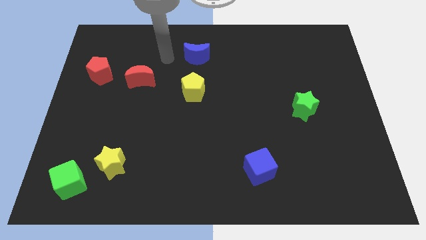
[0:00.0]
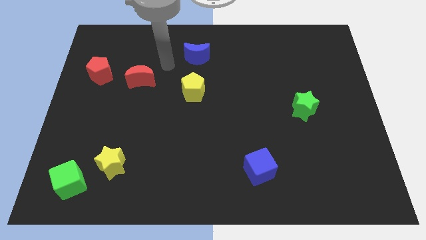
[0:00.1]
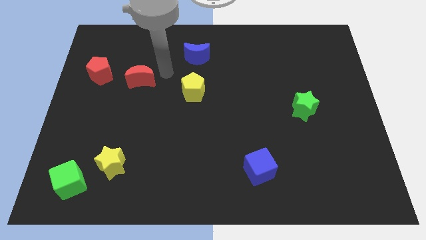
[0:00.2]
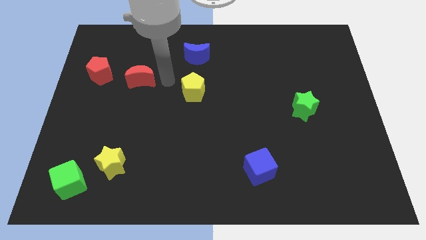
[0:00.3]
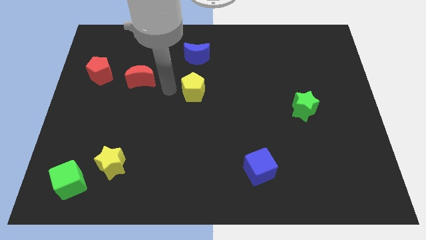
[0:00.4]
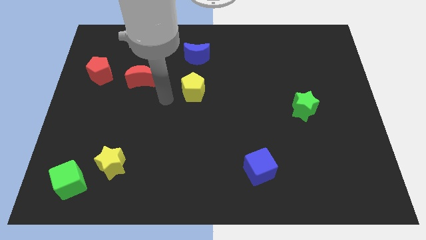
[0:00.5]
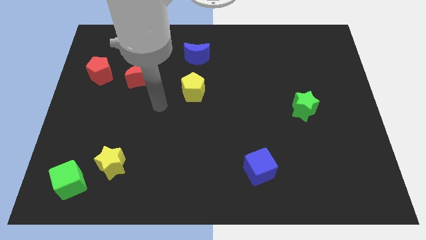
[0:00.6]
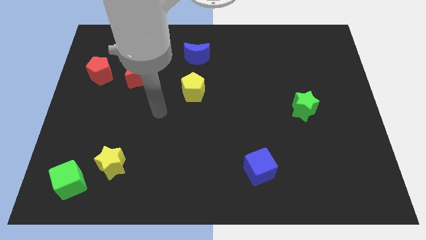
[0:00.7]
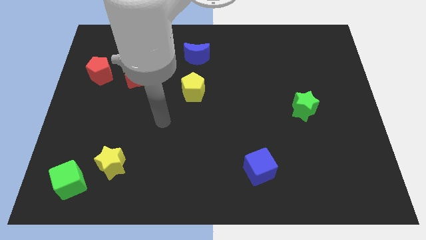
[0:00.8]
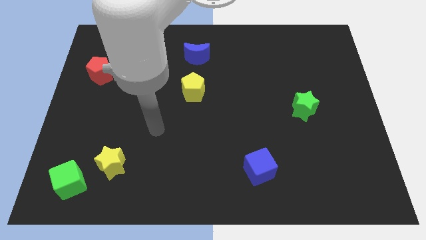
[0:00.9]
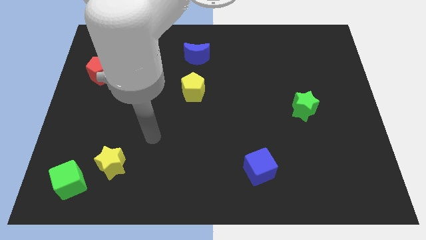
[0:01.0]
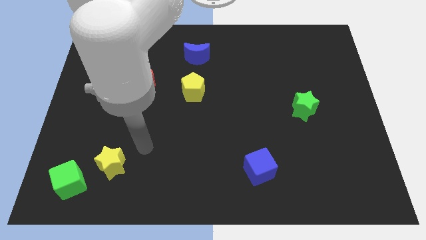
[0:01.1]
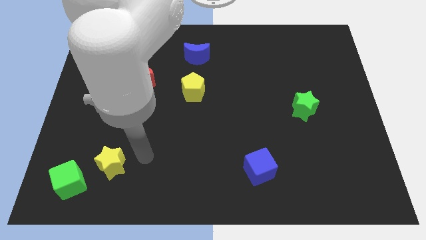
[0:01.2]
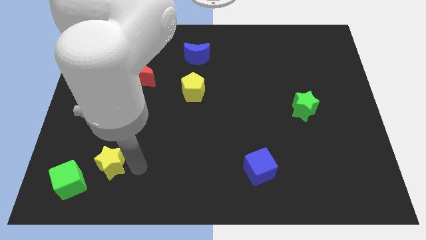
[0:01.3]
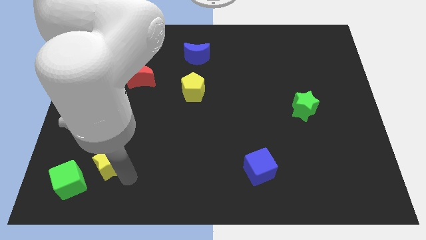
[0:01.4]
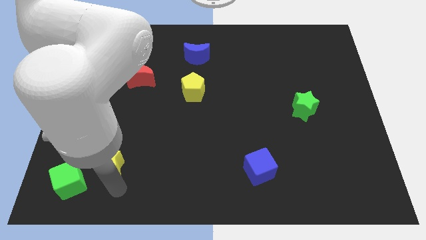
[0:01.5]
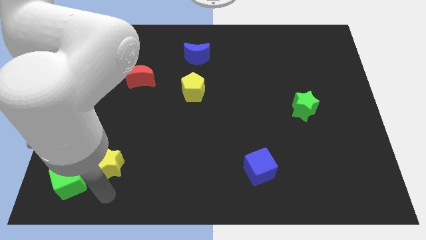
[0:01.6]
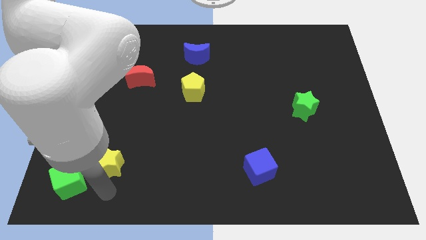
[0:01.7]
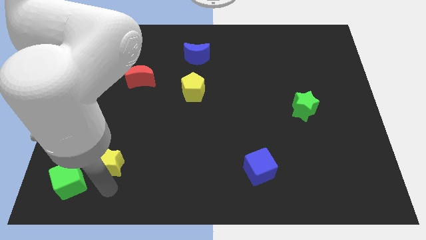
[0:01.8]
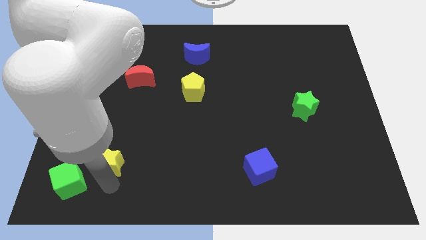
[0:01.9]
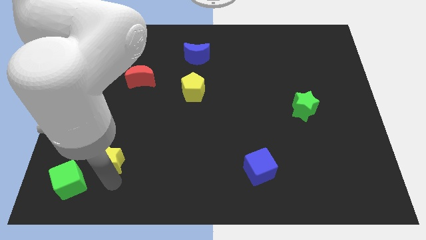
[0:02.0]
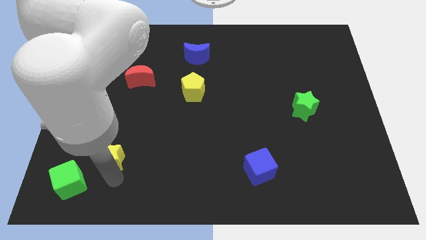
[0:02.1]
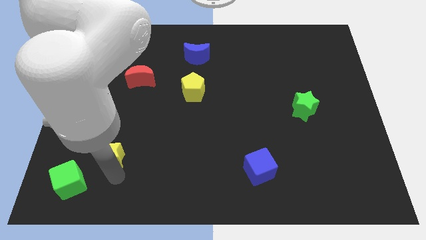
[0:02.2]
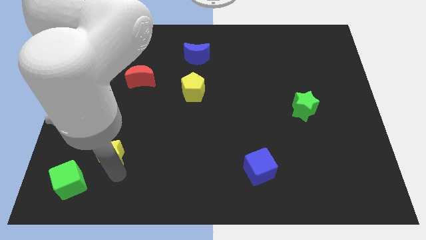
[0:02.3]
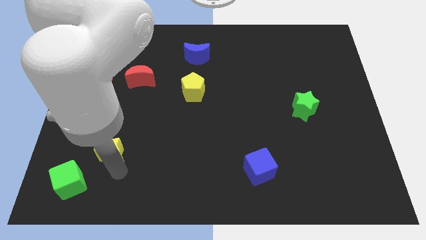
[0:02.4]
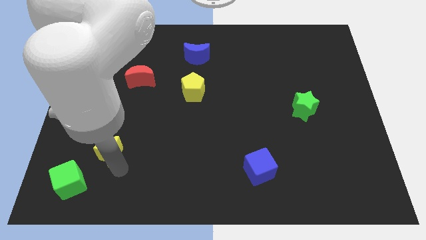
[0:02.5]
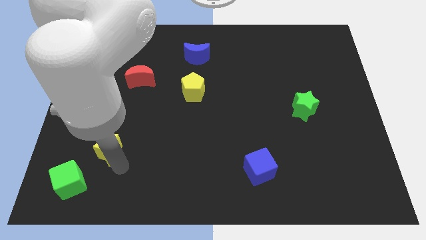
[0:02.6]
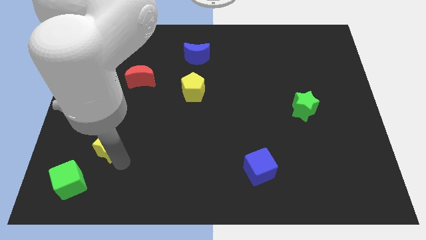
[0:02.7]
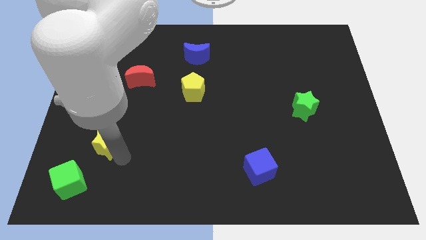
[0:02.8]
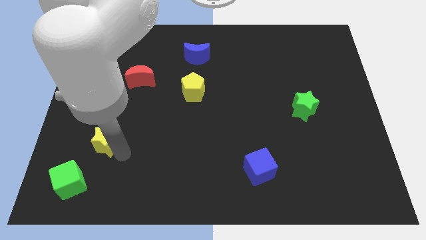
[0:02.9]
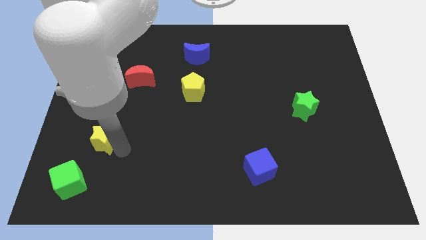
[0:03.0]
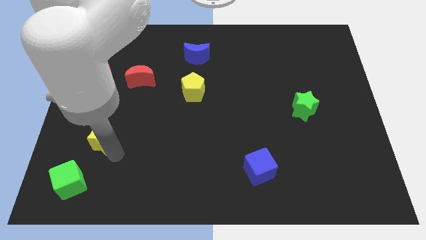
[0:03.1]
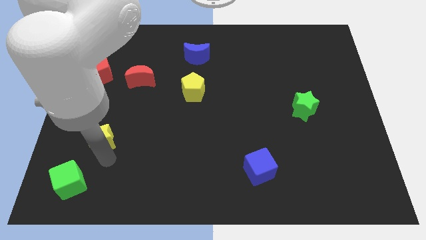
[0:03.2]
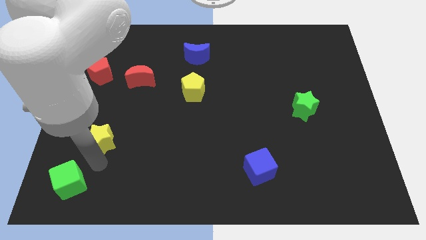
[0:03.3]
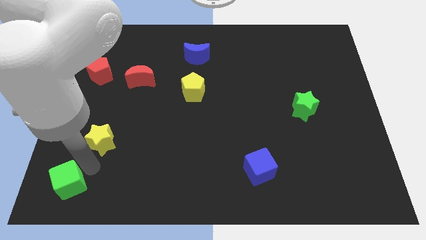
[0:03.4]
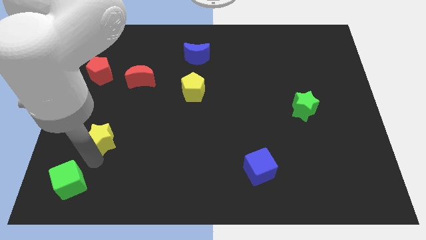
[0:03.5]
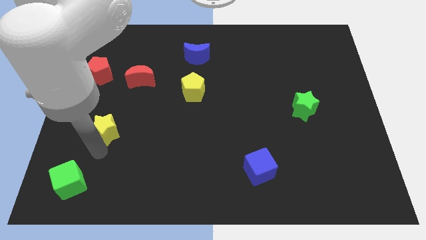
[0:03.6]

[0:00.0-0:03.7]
move the yellow star up a bit

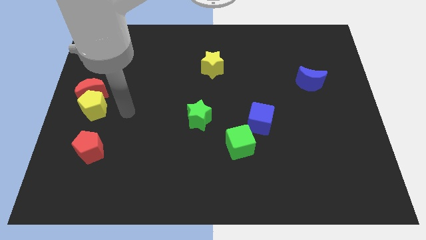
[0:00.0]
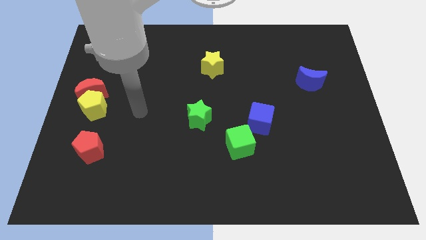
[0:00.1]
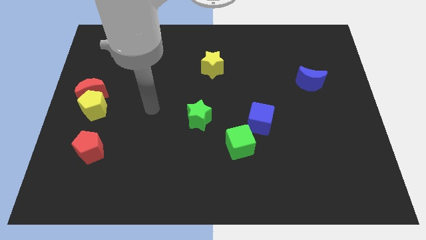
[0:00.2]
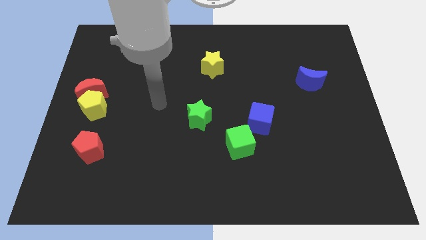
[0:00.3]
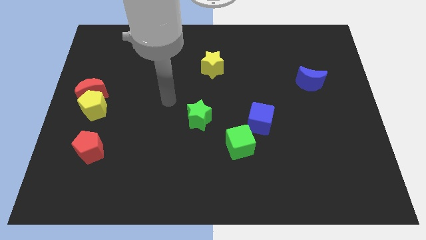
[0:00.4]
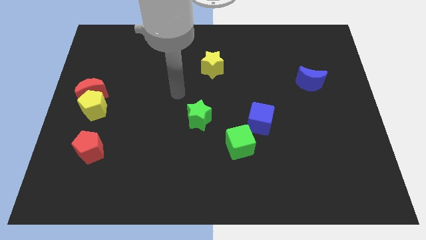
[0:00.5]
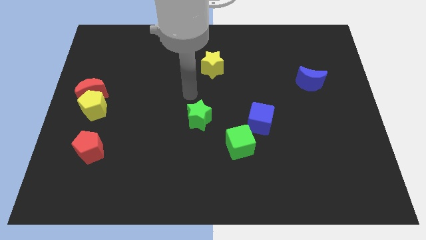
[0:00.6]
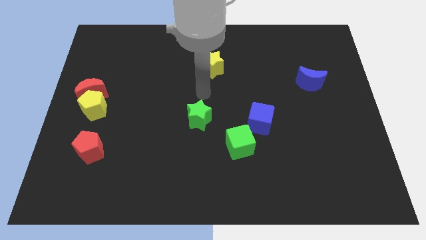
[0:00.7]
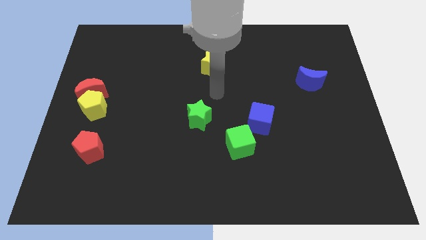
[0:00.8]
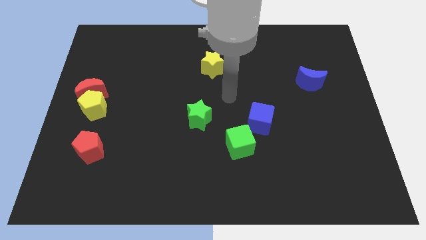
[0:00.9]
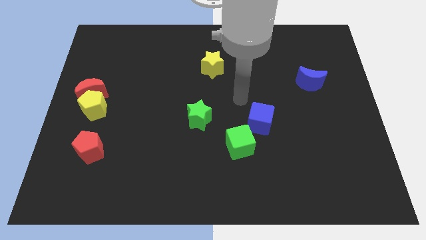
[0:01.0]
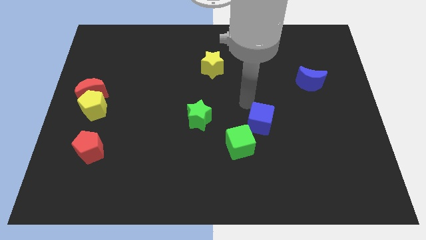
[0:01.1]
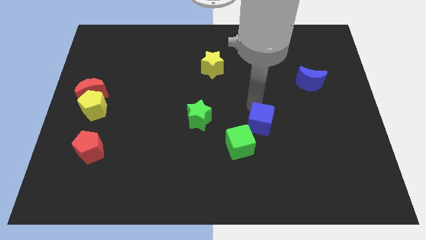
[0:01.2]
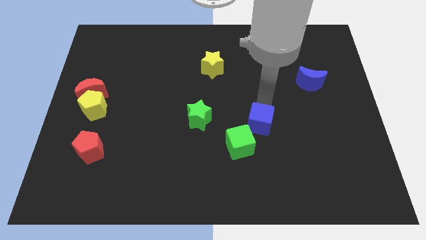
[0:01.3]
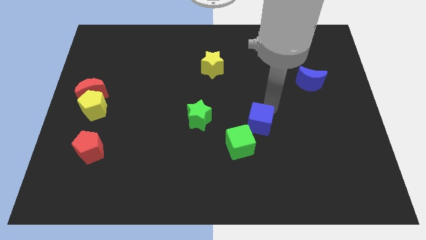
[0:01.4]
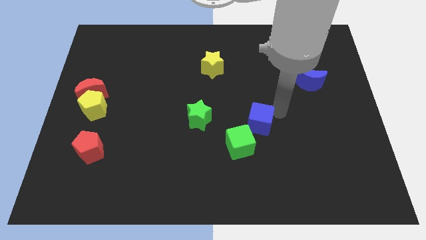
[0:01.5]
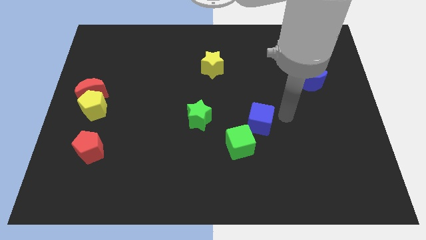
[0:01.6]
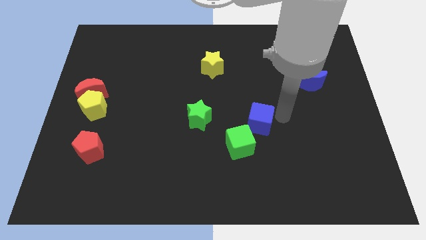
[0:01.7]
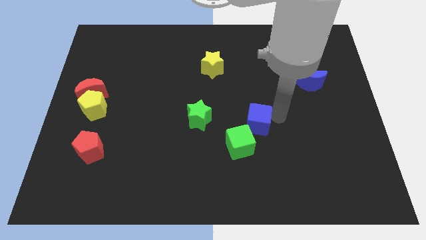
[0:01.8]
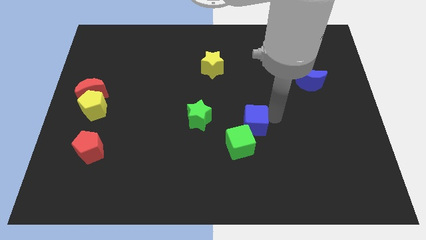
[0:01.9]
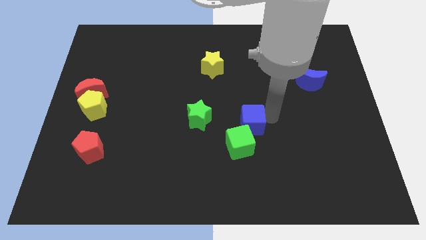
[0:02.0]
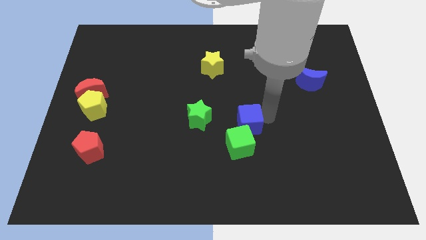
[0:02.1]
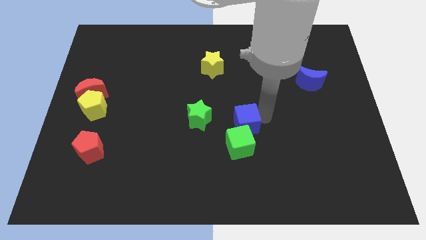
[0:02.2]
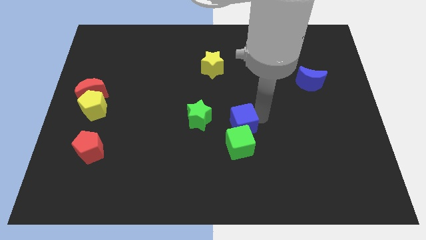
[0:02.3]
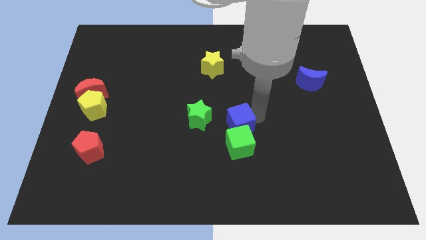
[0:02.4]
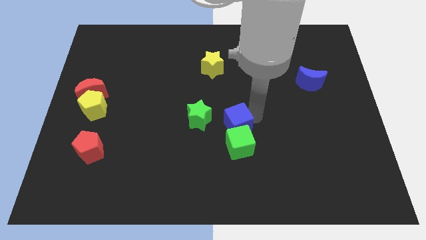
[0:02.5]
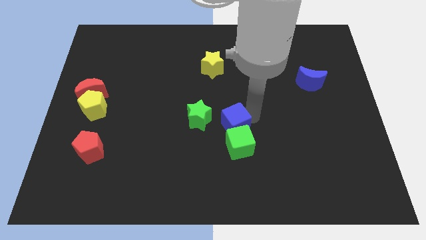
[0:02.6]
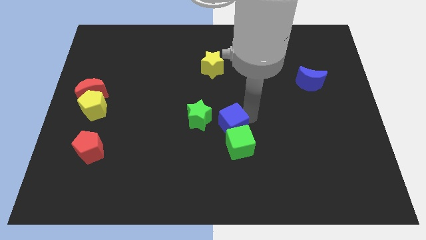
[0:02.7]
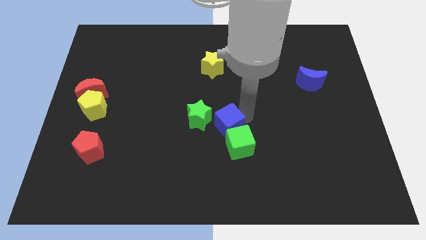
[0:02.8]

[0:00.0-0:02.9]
slightly slide the blue cube to the left

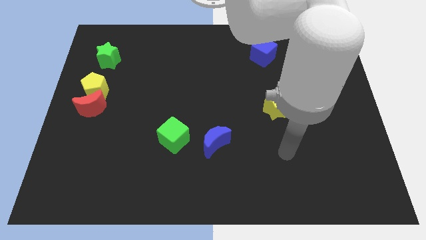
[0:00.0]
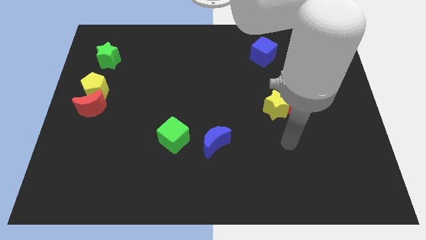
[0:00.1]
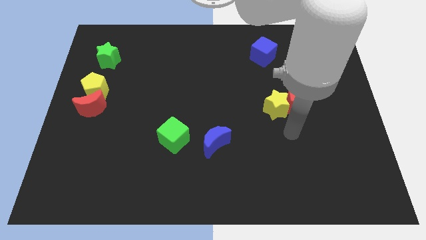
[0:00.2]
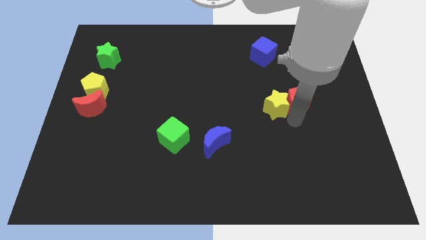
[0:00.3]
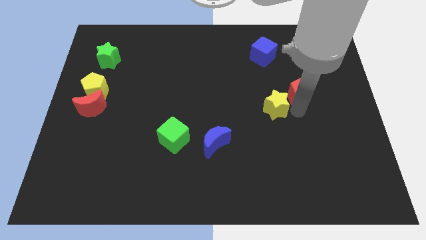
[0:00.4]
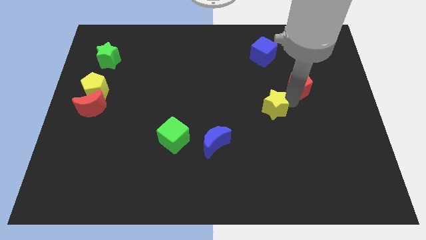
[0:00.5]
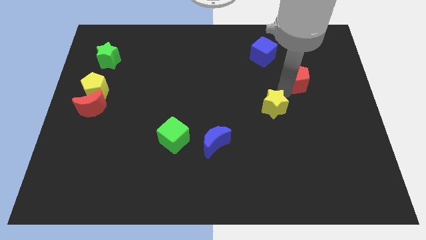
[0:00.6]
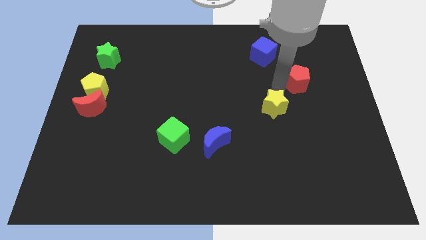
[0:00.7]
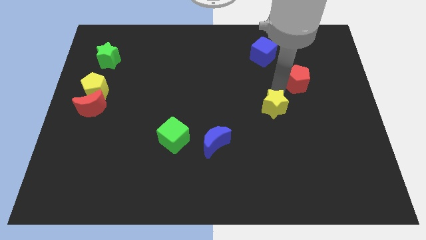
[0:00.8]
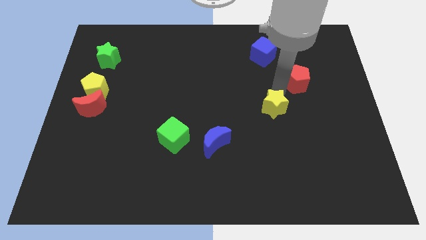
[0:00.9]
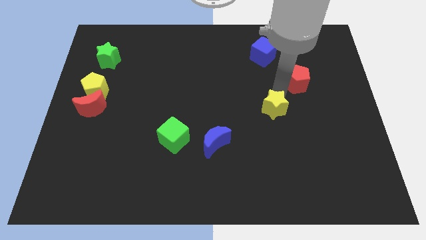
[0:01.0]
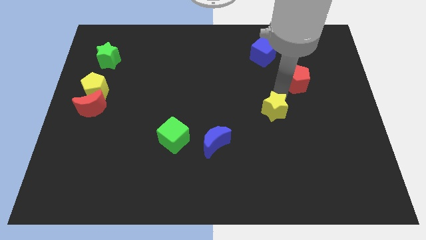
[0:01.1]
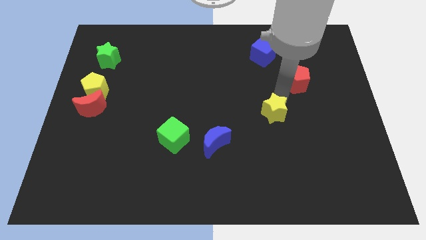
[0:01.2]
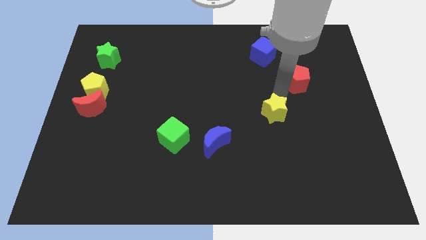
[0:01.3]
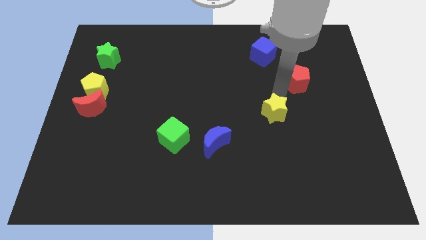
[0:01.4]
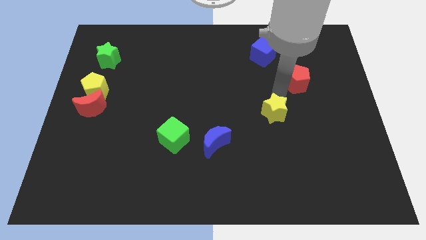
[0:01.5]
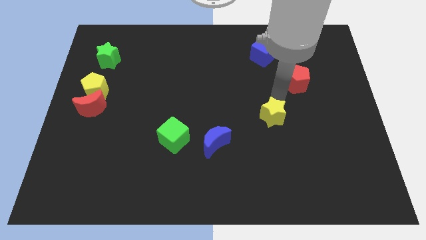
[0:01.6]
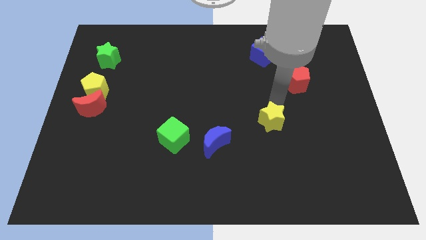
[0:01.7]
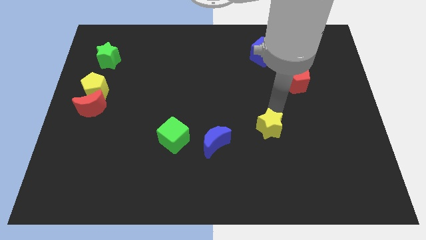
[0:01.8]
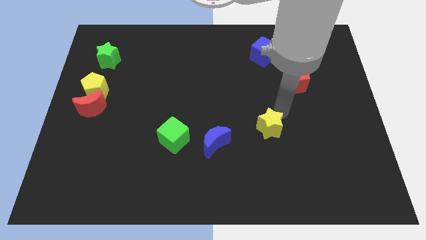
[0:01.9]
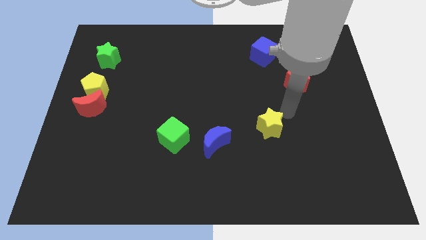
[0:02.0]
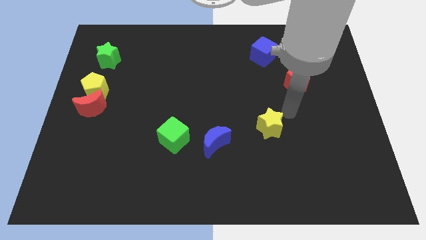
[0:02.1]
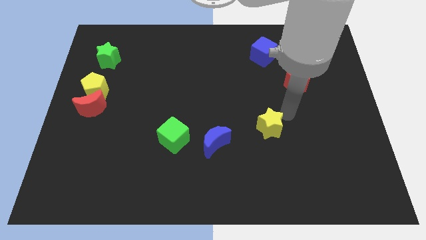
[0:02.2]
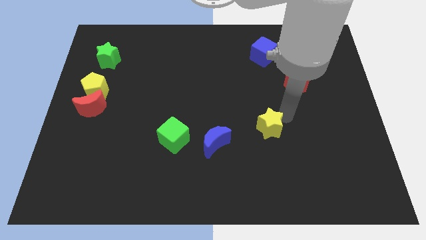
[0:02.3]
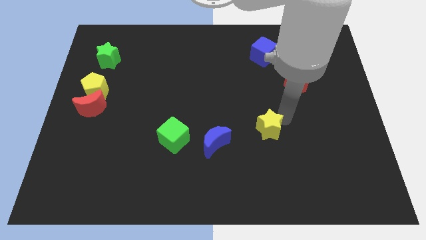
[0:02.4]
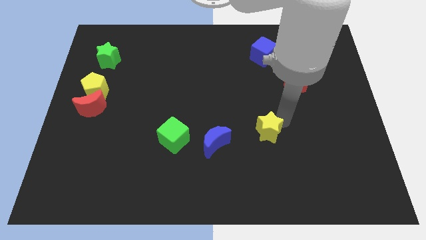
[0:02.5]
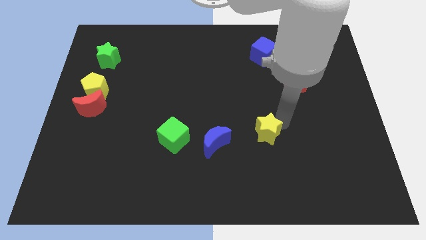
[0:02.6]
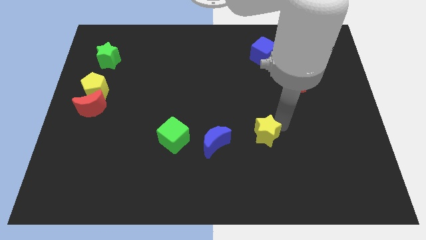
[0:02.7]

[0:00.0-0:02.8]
slightly slide the yellow star downwards and left
